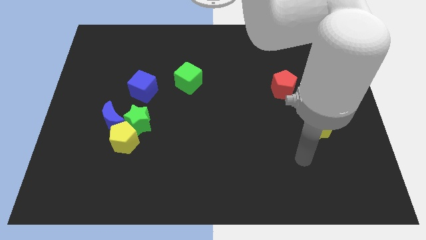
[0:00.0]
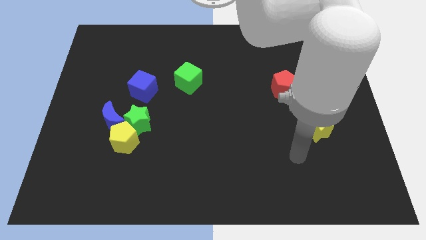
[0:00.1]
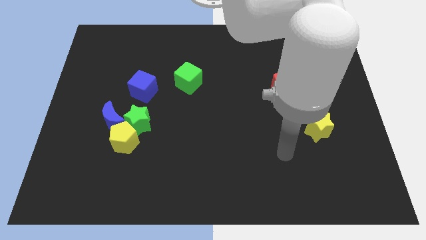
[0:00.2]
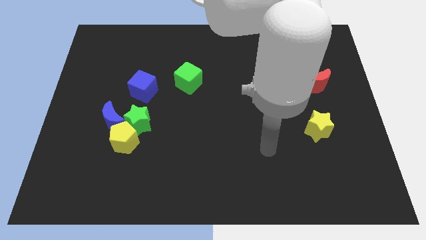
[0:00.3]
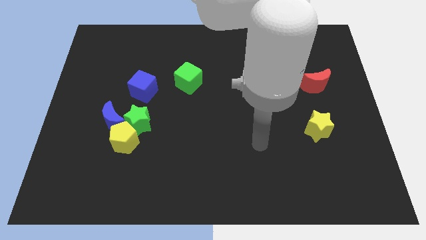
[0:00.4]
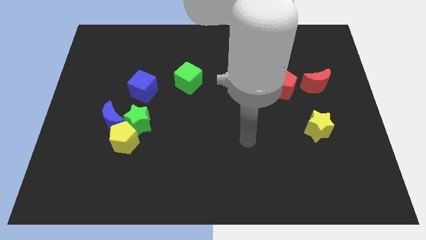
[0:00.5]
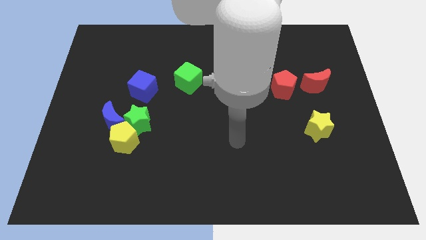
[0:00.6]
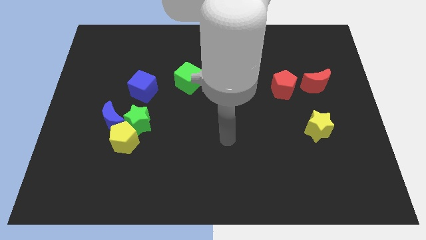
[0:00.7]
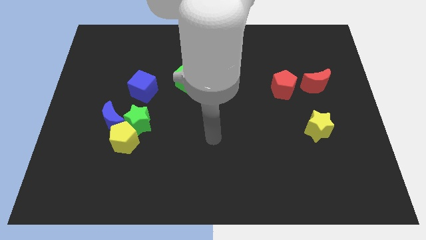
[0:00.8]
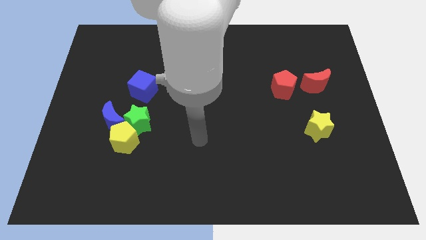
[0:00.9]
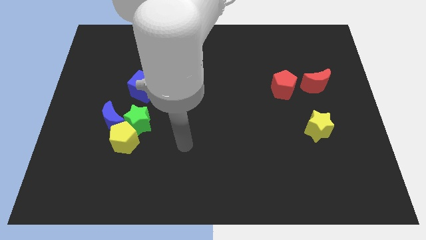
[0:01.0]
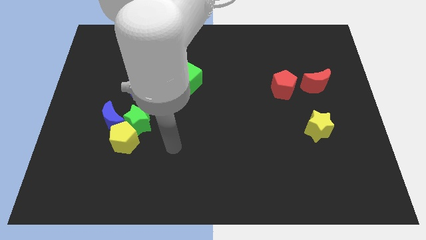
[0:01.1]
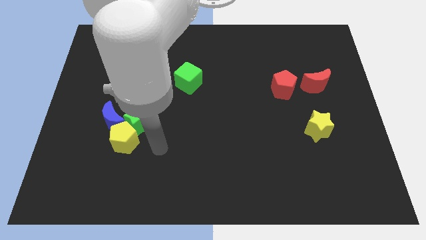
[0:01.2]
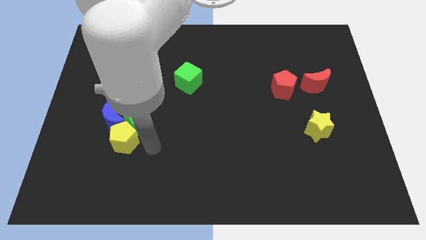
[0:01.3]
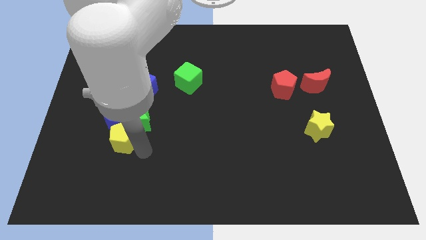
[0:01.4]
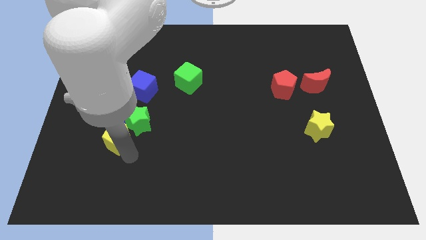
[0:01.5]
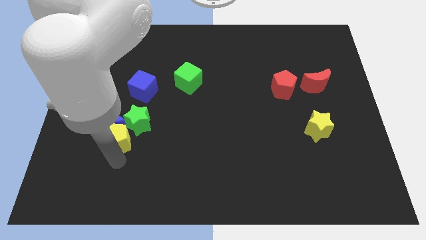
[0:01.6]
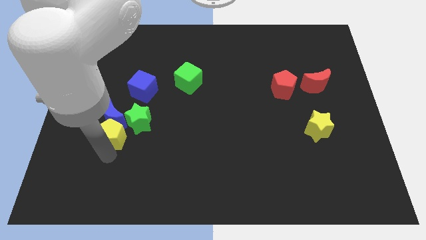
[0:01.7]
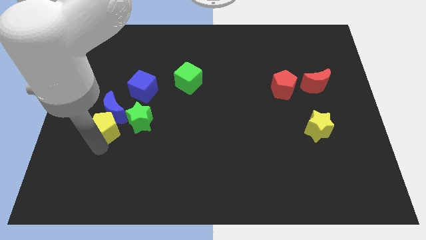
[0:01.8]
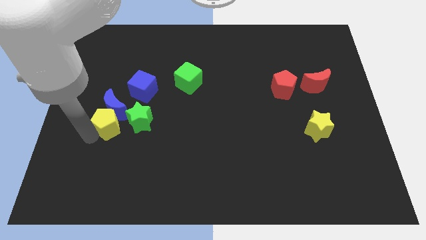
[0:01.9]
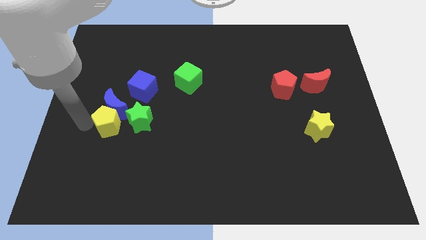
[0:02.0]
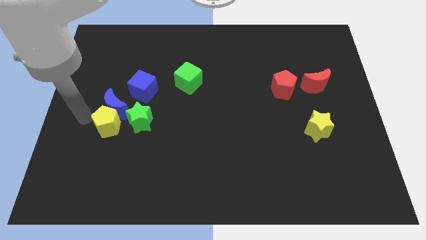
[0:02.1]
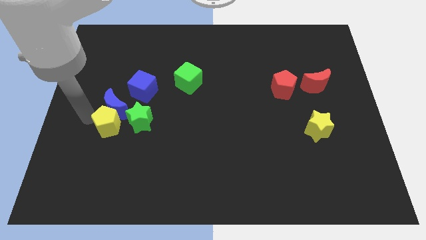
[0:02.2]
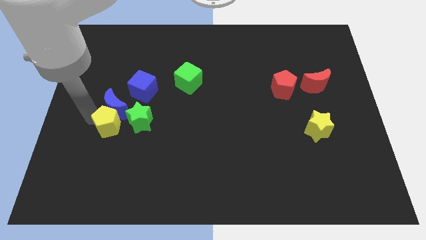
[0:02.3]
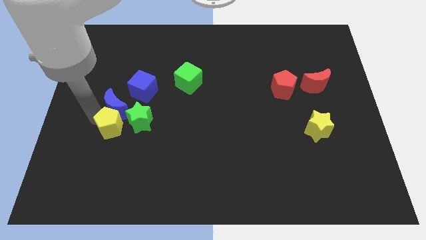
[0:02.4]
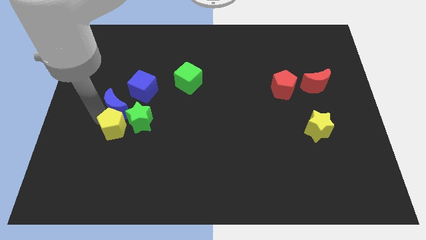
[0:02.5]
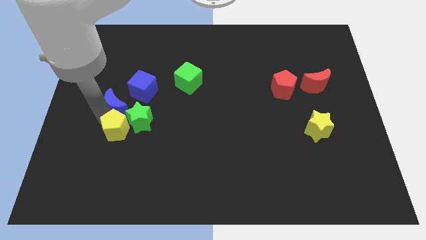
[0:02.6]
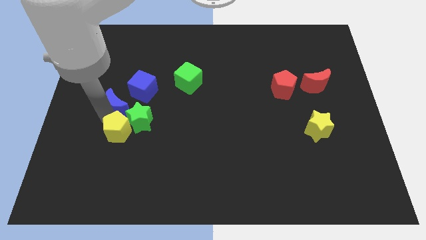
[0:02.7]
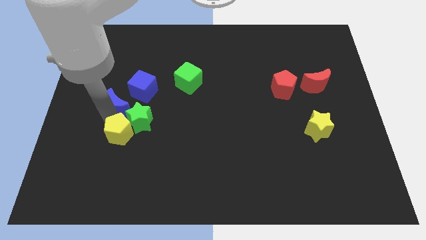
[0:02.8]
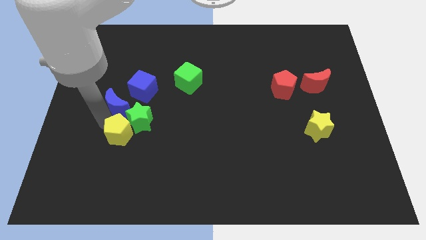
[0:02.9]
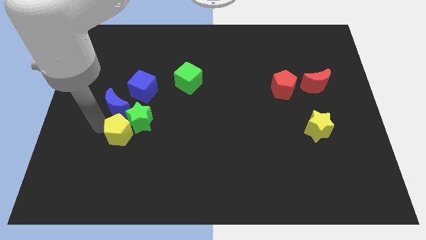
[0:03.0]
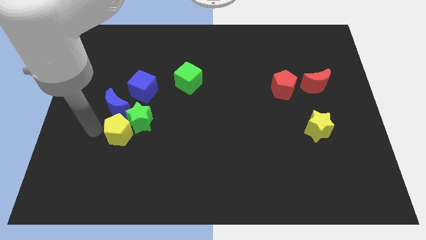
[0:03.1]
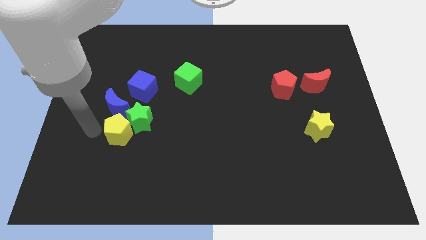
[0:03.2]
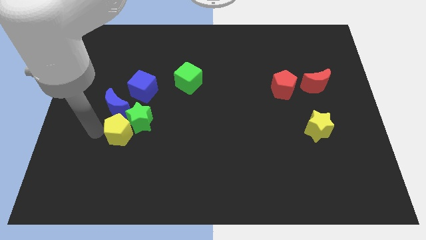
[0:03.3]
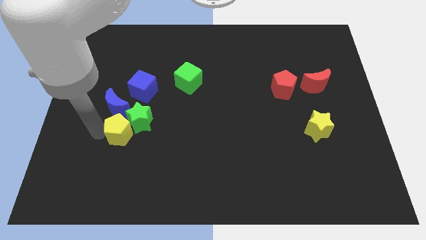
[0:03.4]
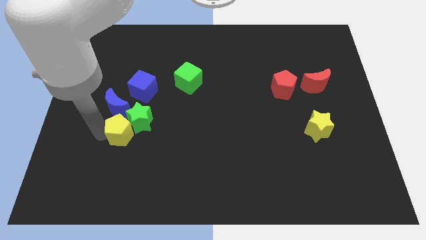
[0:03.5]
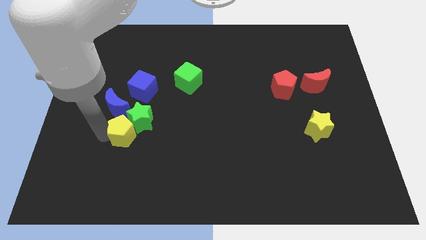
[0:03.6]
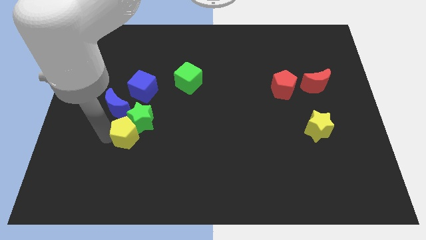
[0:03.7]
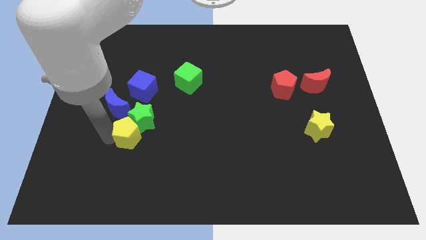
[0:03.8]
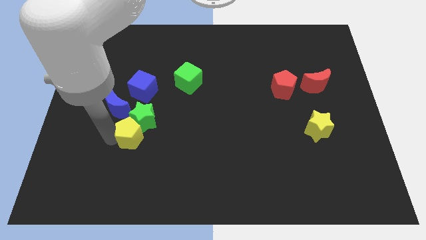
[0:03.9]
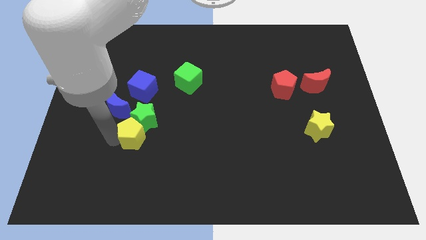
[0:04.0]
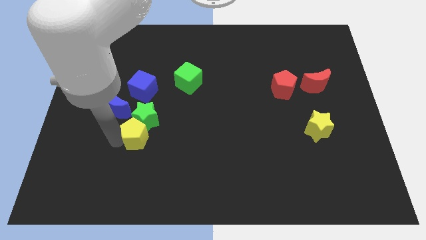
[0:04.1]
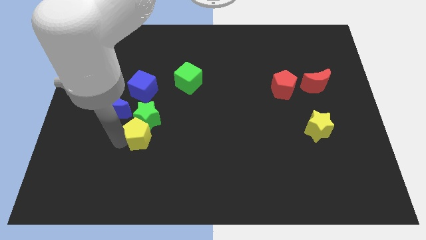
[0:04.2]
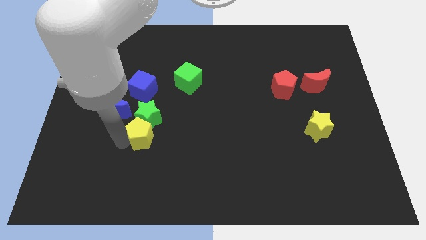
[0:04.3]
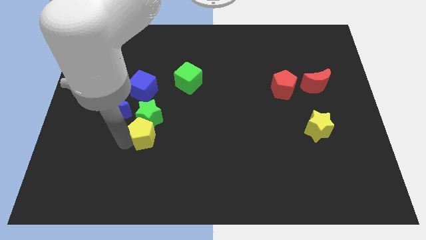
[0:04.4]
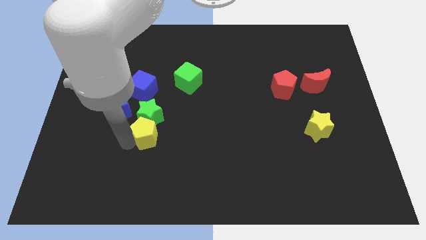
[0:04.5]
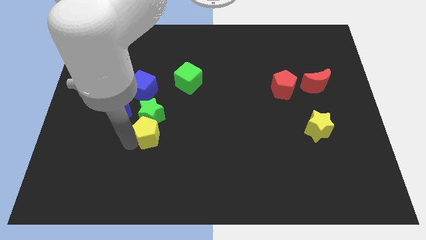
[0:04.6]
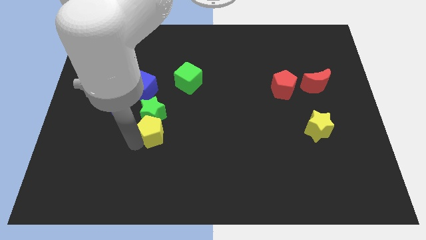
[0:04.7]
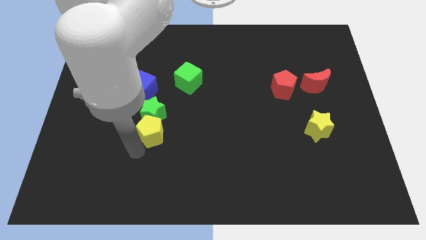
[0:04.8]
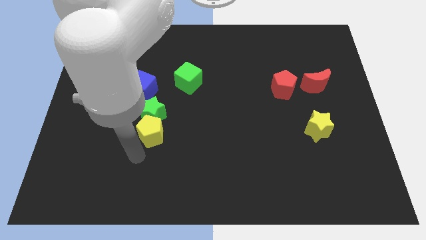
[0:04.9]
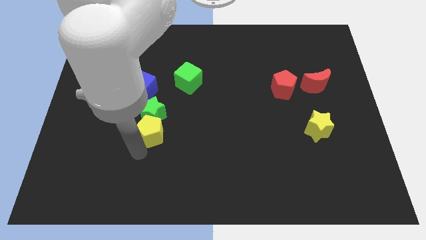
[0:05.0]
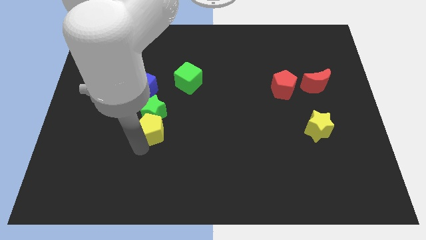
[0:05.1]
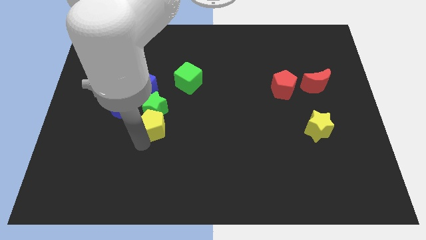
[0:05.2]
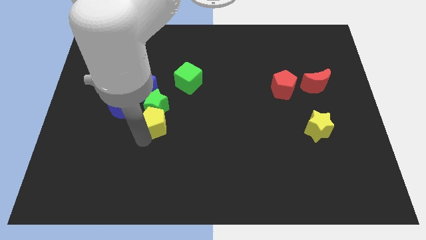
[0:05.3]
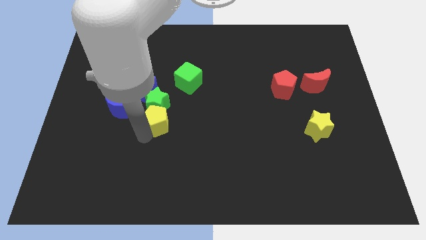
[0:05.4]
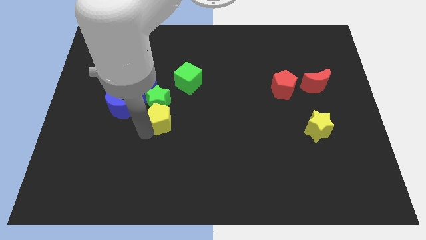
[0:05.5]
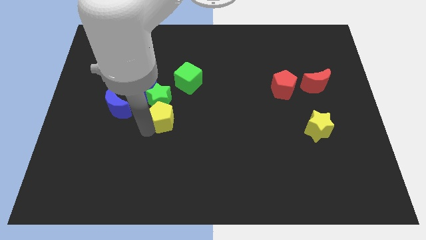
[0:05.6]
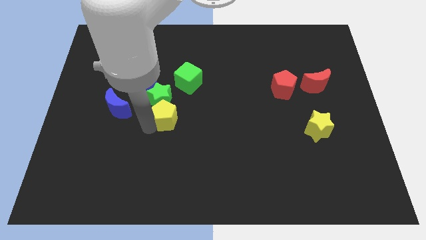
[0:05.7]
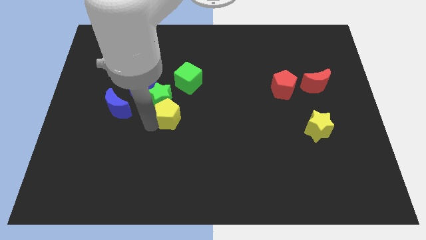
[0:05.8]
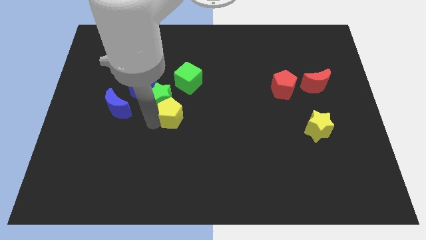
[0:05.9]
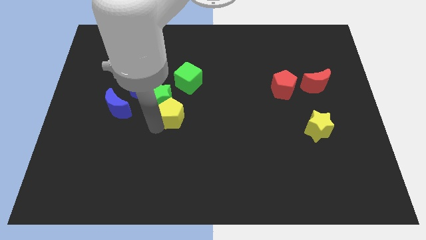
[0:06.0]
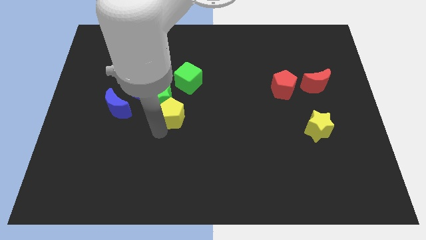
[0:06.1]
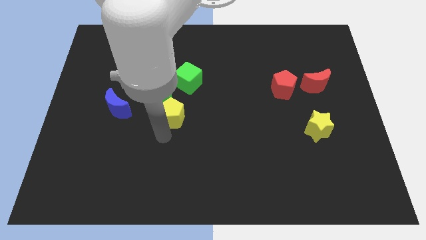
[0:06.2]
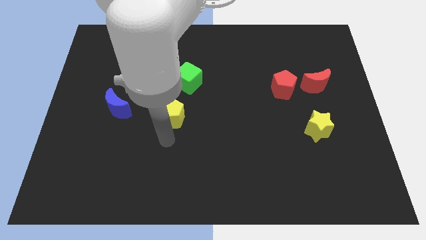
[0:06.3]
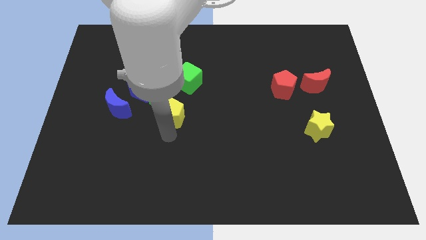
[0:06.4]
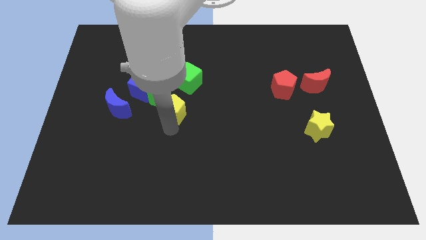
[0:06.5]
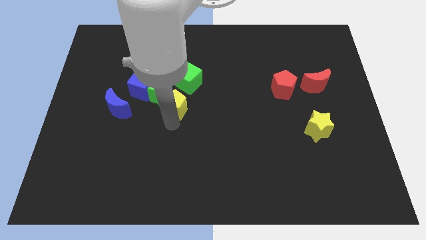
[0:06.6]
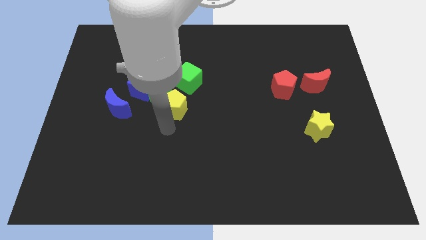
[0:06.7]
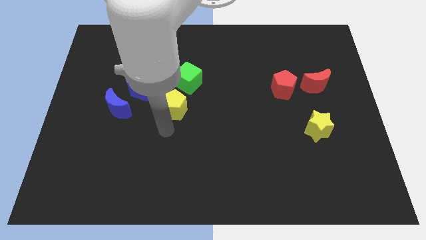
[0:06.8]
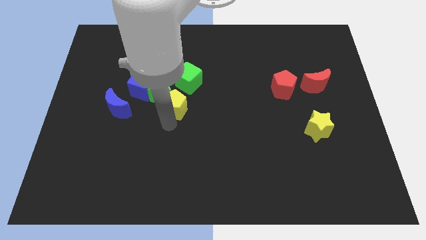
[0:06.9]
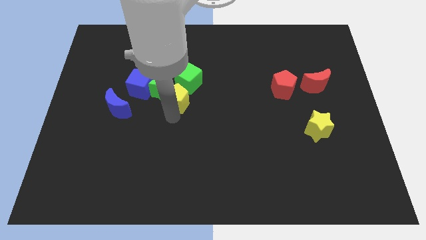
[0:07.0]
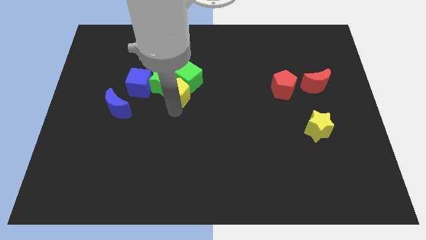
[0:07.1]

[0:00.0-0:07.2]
put the yellow pentagon towards the green cube
